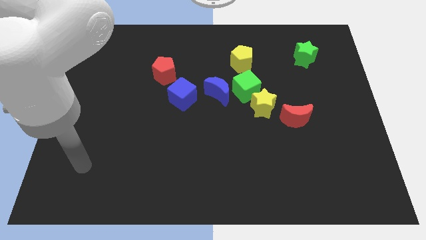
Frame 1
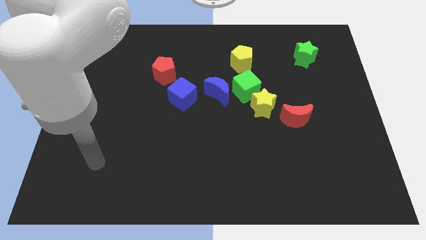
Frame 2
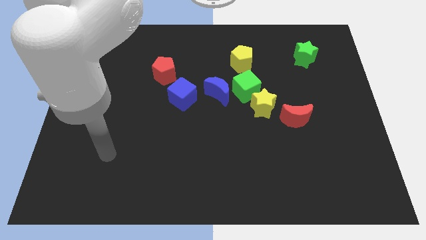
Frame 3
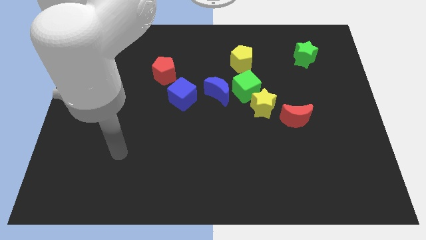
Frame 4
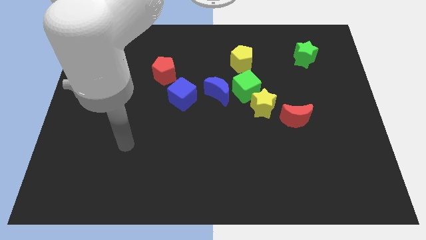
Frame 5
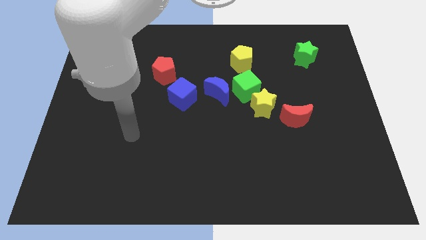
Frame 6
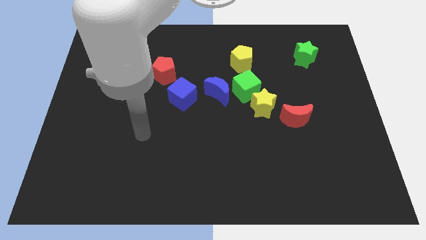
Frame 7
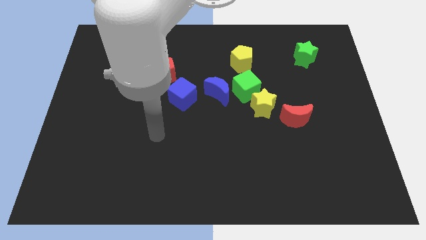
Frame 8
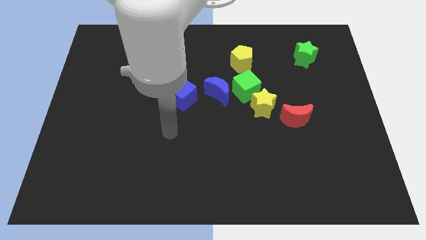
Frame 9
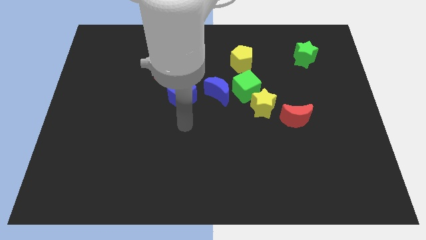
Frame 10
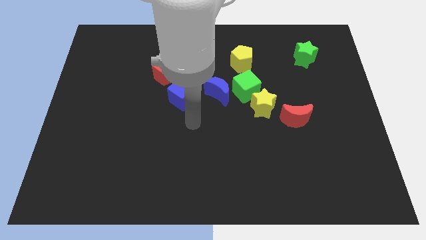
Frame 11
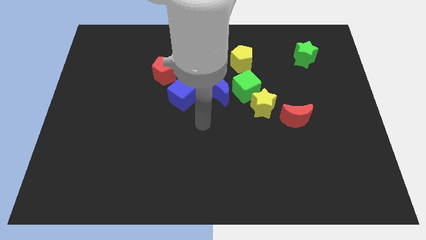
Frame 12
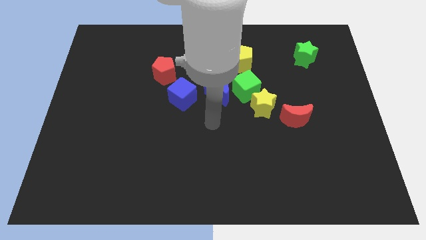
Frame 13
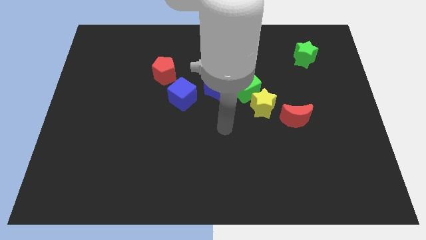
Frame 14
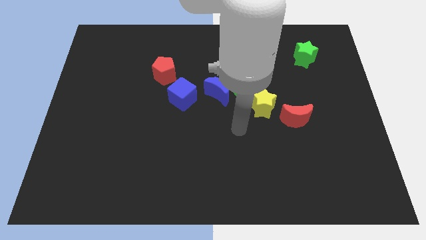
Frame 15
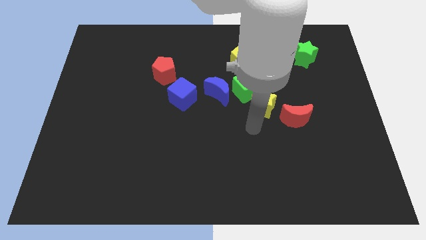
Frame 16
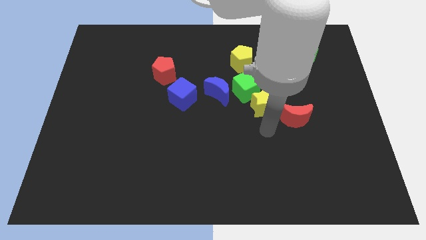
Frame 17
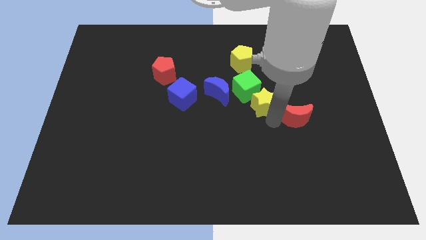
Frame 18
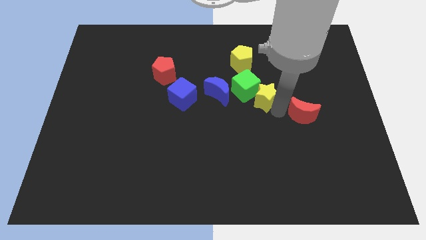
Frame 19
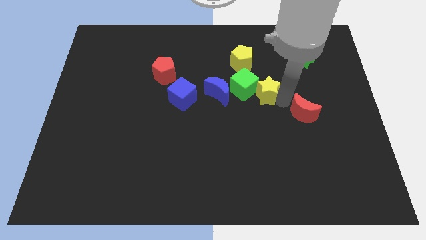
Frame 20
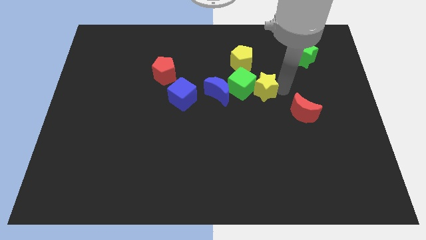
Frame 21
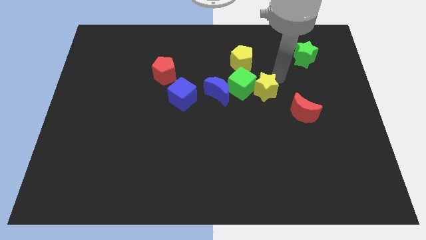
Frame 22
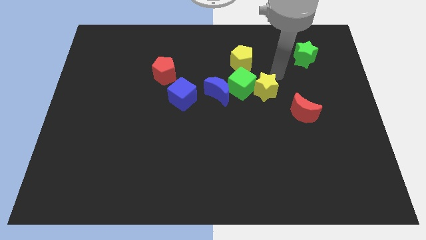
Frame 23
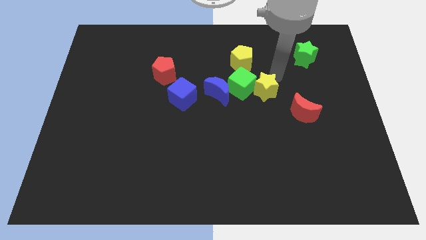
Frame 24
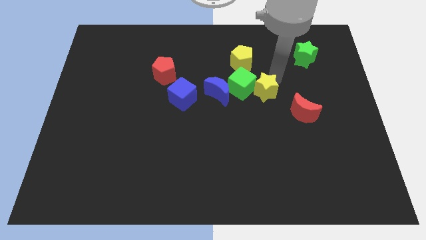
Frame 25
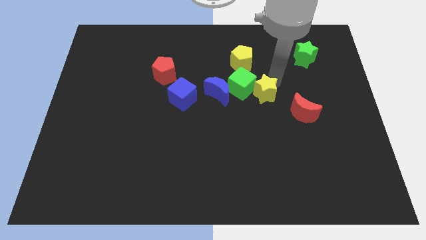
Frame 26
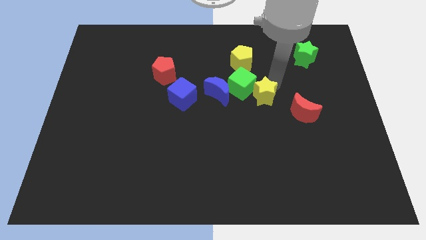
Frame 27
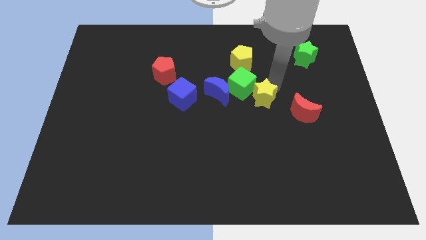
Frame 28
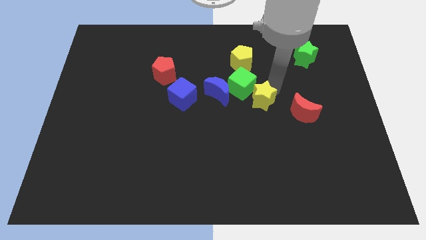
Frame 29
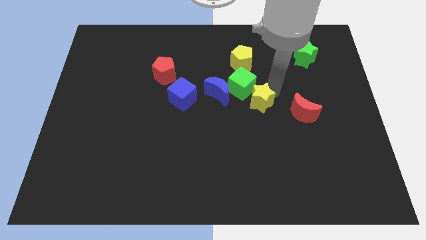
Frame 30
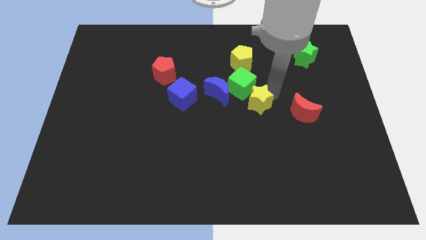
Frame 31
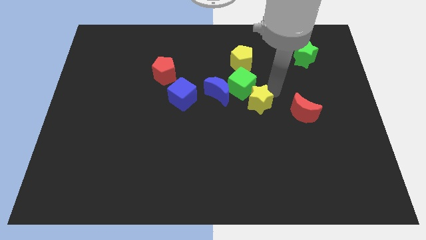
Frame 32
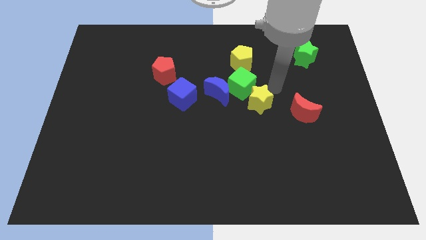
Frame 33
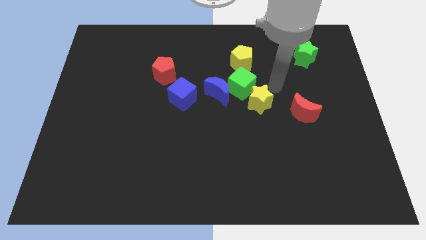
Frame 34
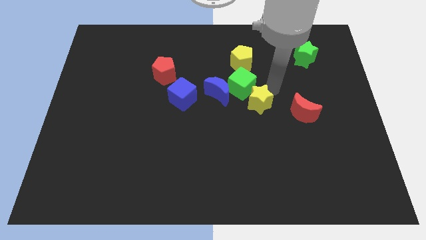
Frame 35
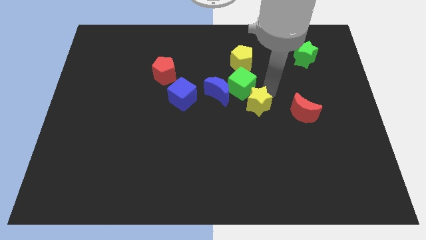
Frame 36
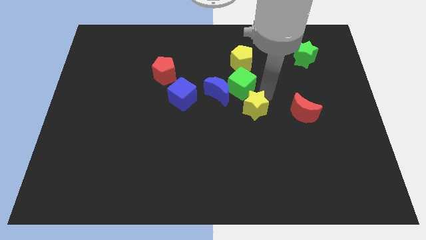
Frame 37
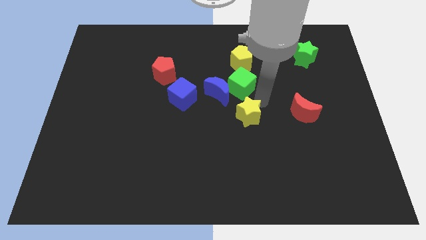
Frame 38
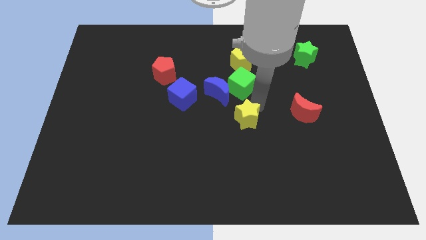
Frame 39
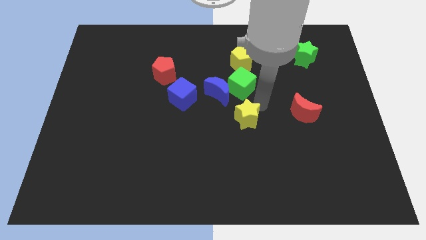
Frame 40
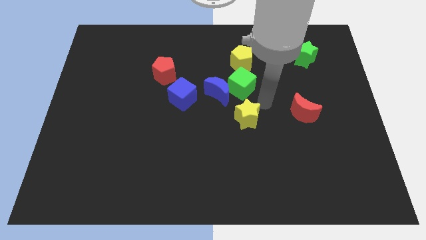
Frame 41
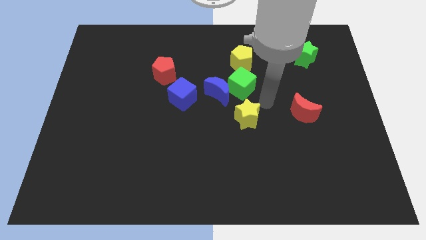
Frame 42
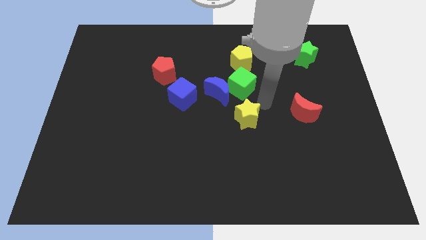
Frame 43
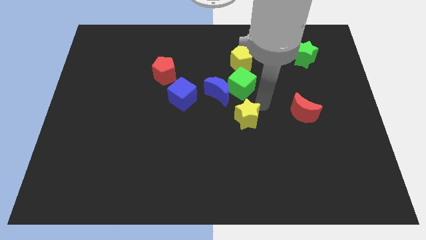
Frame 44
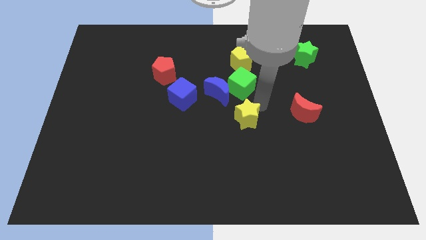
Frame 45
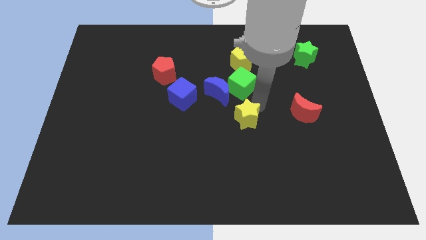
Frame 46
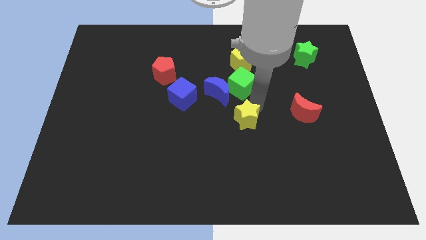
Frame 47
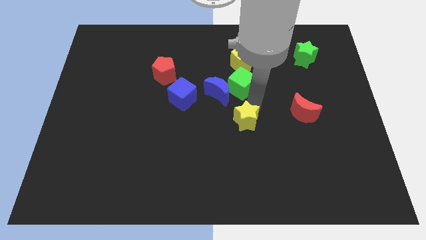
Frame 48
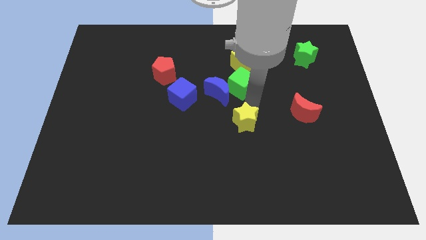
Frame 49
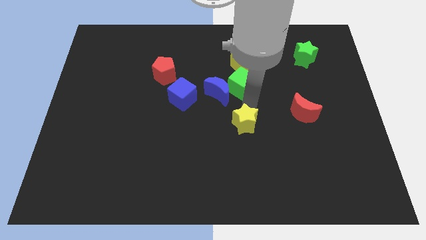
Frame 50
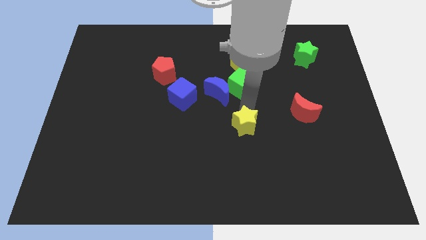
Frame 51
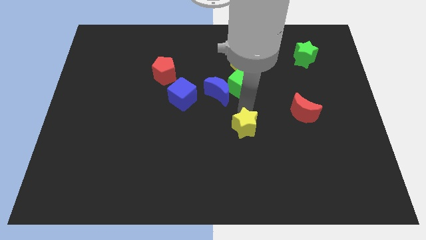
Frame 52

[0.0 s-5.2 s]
pull the yellow star apart from the green cube and red moon

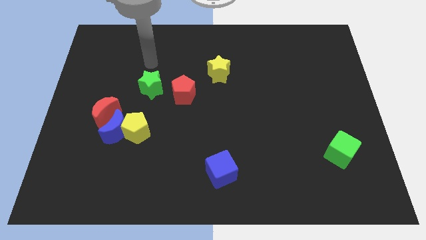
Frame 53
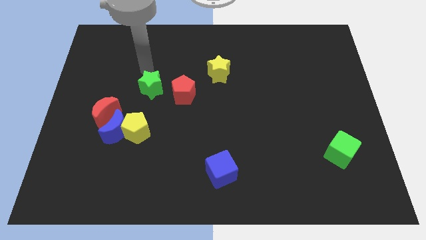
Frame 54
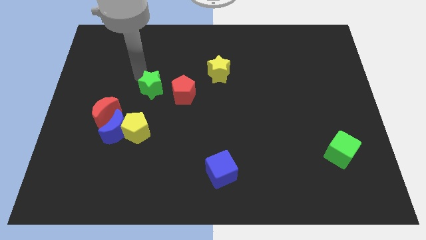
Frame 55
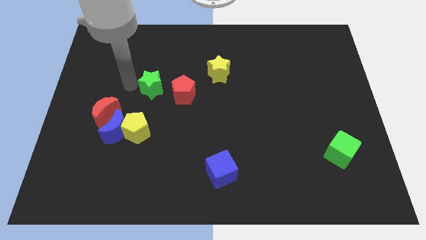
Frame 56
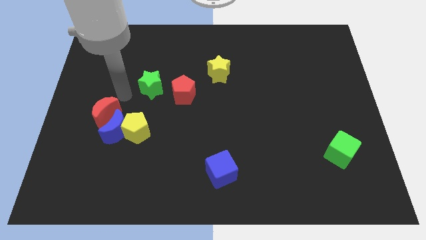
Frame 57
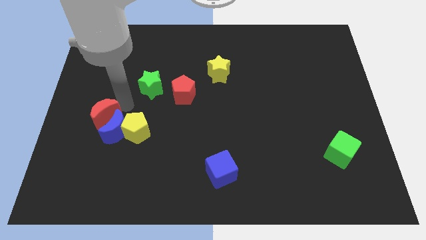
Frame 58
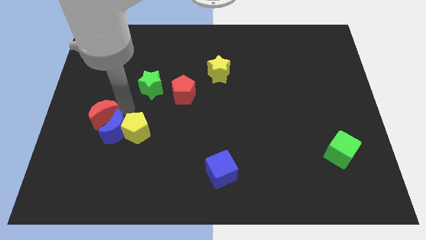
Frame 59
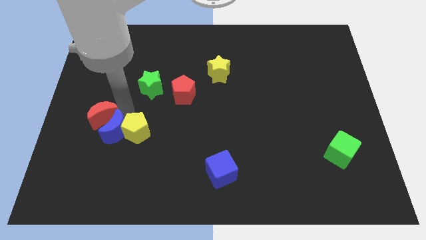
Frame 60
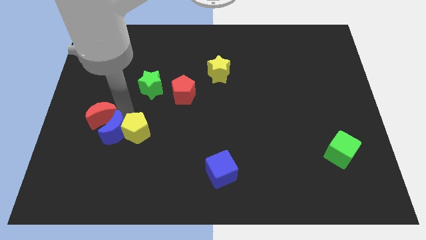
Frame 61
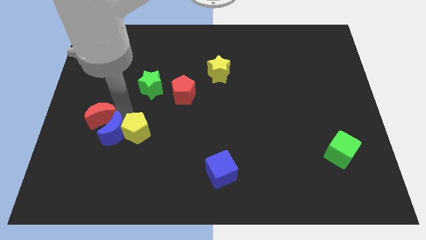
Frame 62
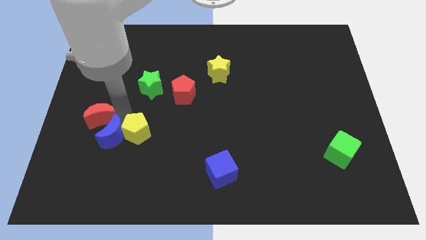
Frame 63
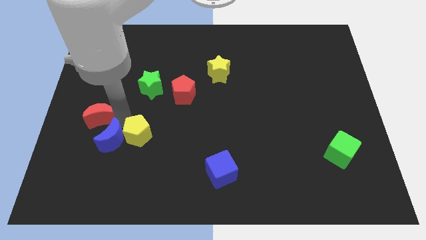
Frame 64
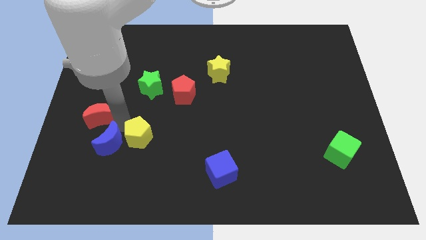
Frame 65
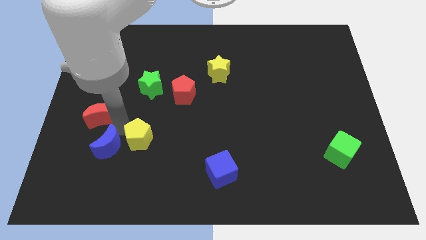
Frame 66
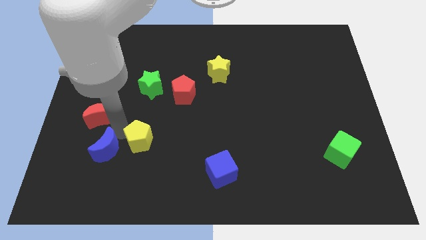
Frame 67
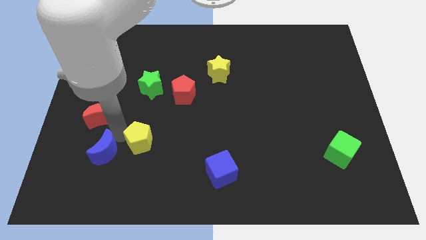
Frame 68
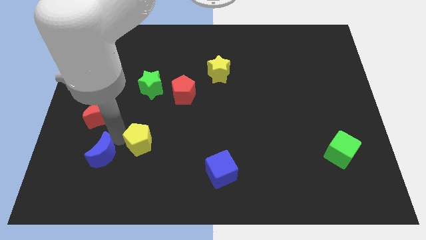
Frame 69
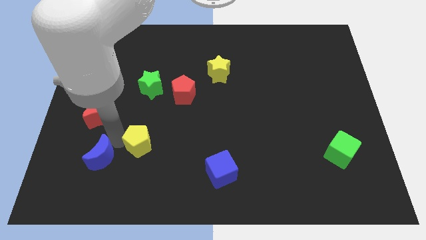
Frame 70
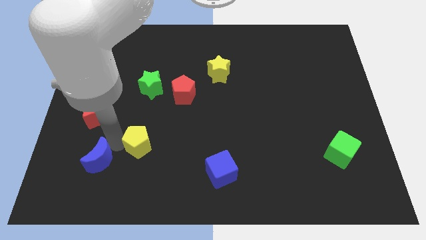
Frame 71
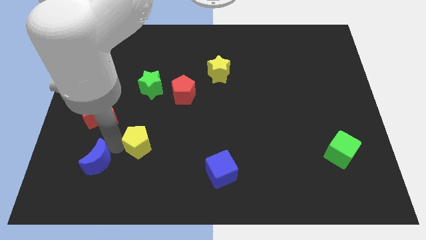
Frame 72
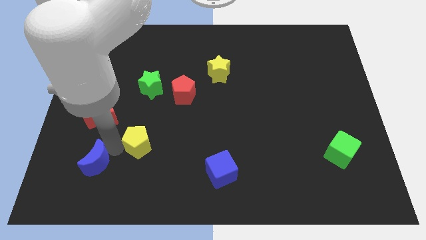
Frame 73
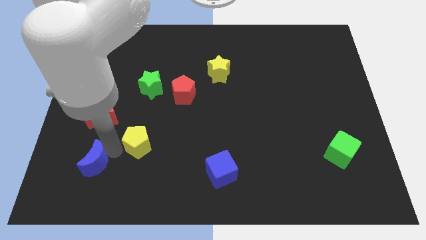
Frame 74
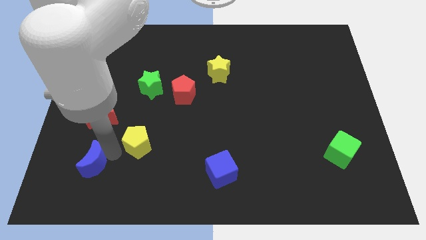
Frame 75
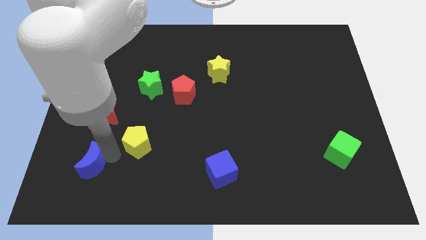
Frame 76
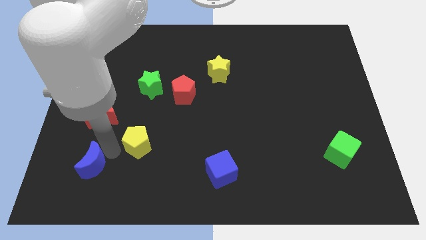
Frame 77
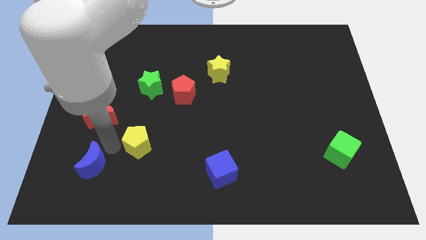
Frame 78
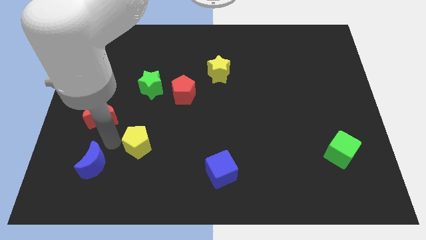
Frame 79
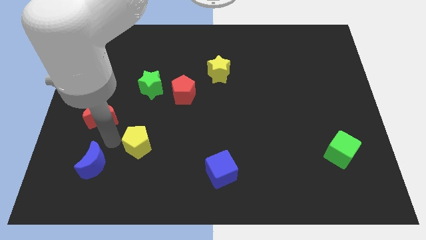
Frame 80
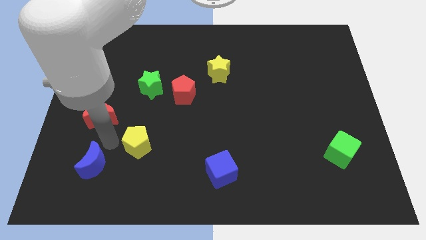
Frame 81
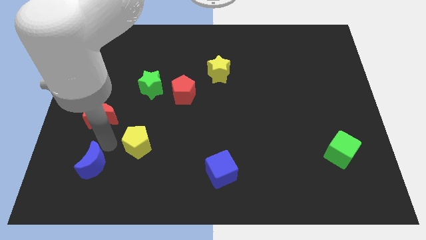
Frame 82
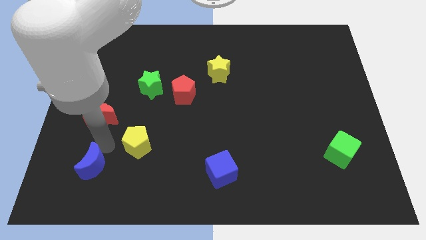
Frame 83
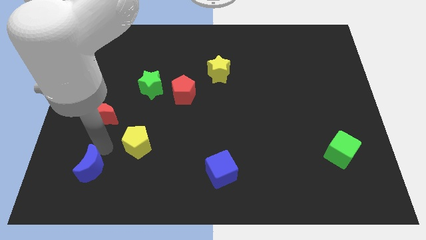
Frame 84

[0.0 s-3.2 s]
pull the blue moon apart from the yellow pentagon and red moon

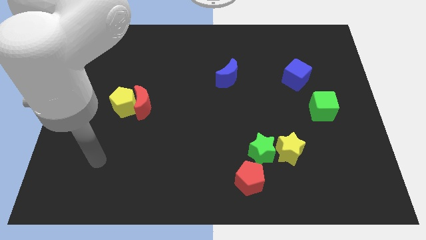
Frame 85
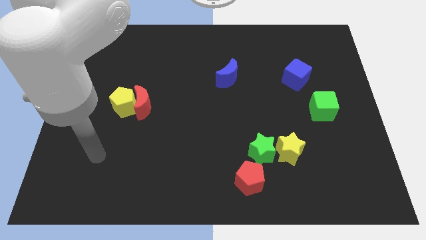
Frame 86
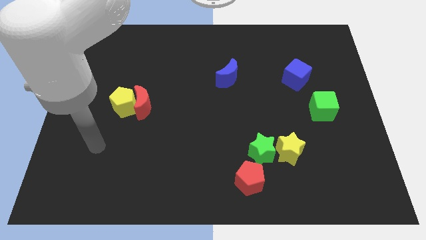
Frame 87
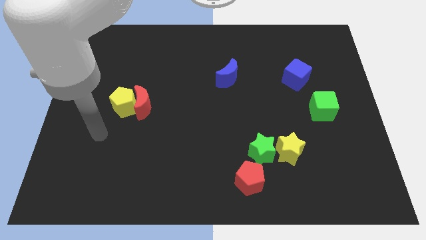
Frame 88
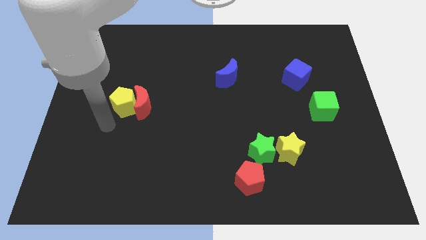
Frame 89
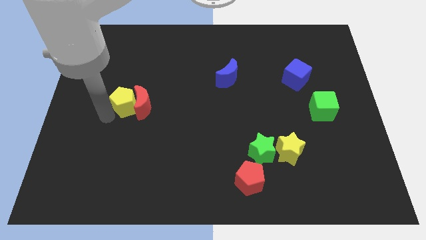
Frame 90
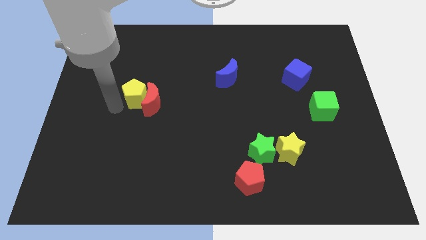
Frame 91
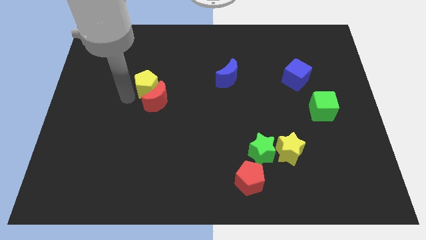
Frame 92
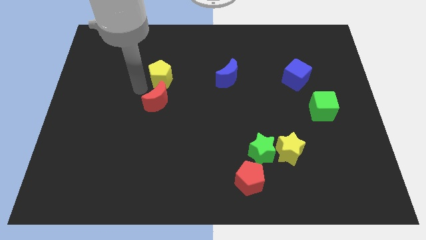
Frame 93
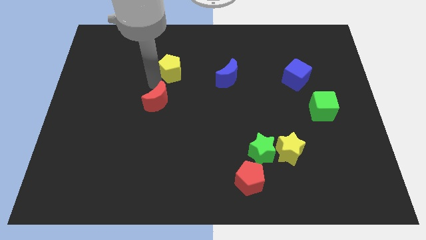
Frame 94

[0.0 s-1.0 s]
pull the red moon apart from the yellow pentagon
